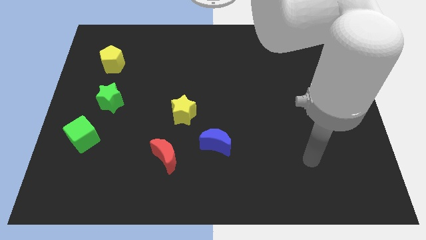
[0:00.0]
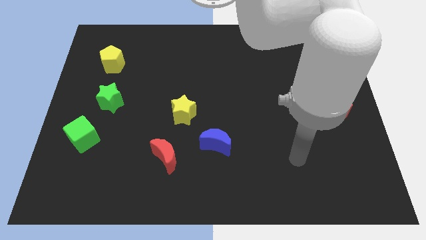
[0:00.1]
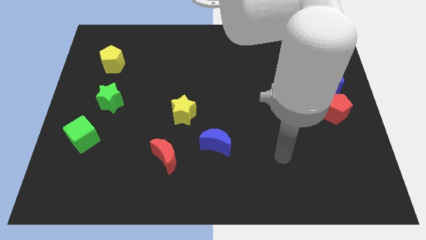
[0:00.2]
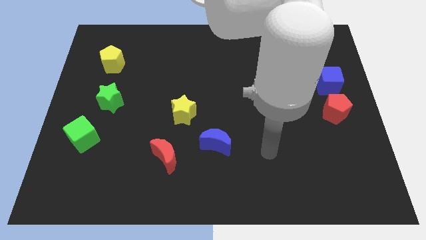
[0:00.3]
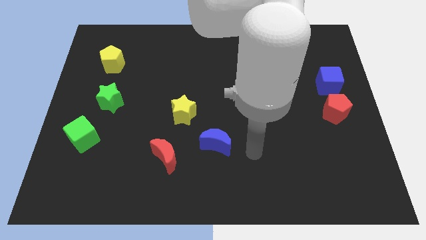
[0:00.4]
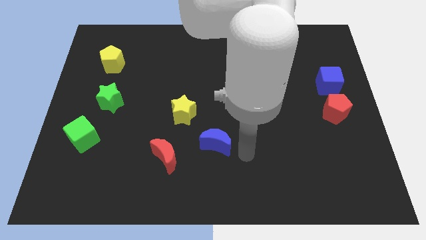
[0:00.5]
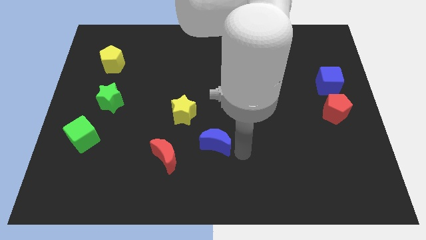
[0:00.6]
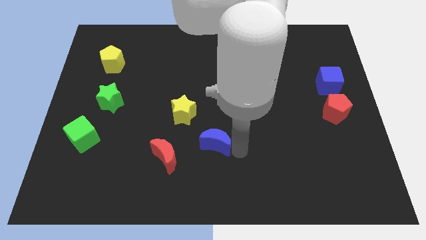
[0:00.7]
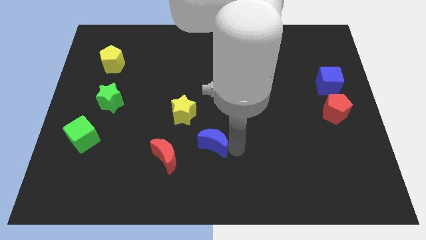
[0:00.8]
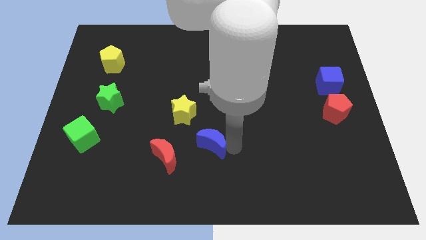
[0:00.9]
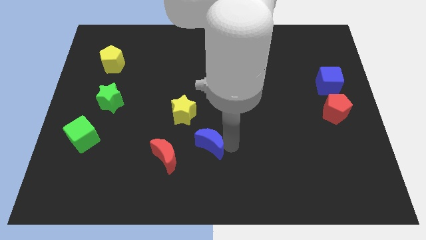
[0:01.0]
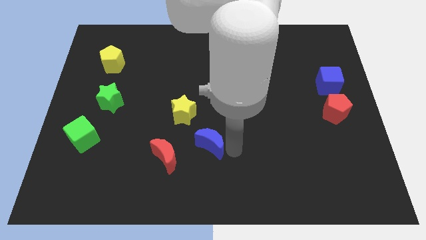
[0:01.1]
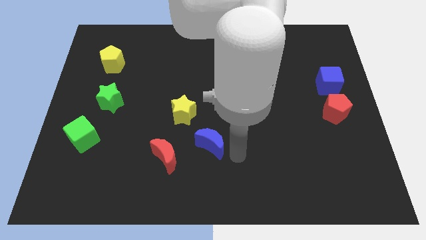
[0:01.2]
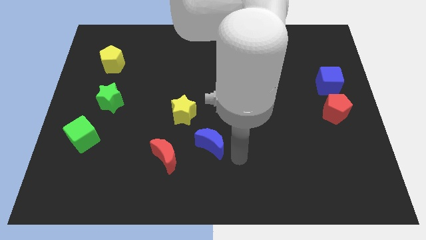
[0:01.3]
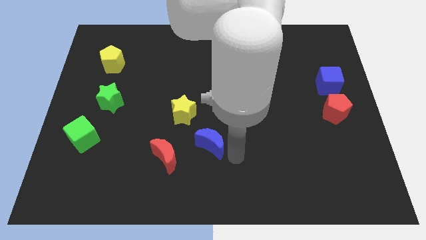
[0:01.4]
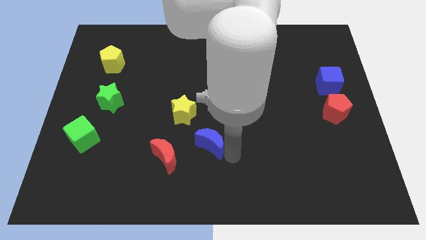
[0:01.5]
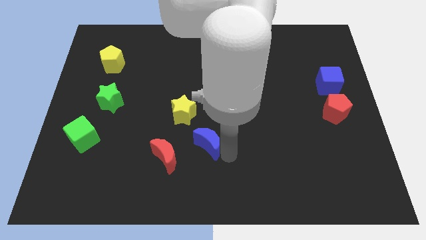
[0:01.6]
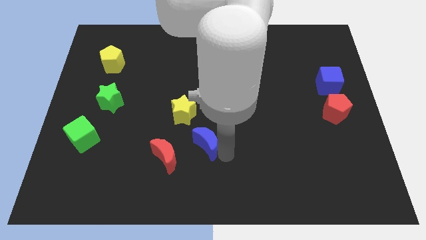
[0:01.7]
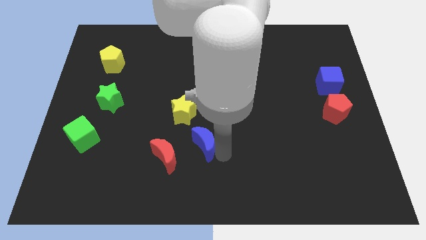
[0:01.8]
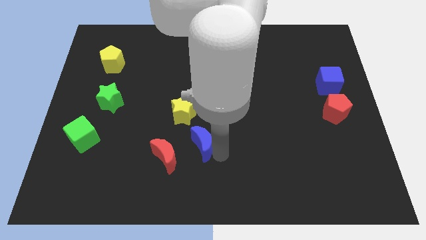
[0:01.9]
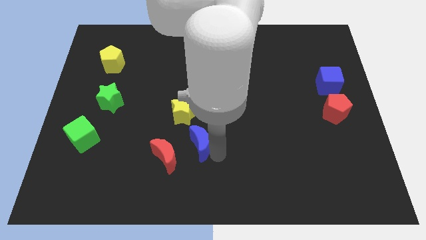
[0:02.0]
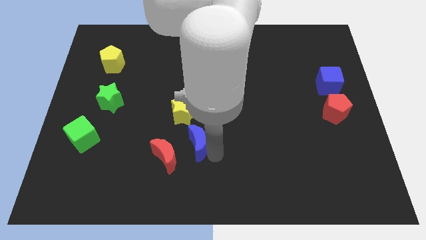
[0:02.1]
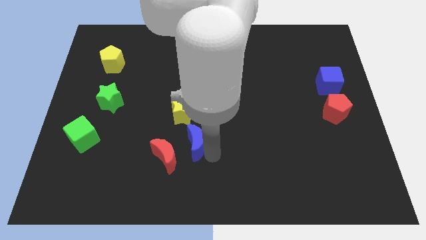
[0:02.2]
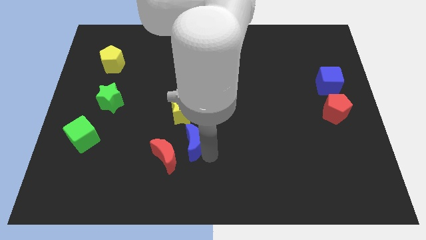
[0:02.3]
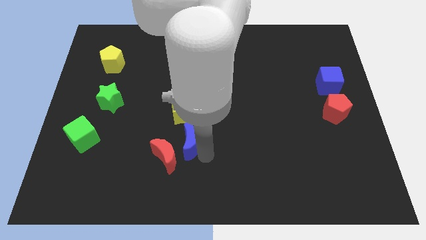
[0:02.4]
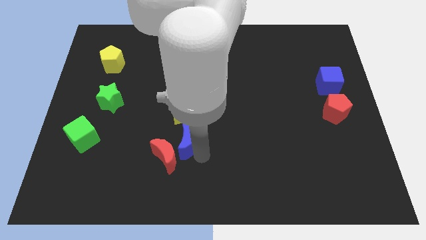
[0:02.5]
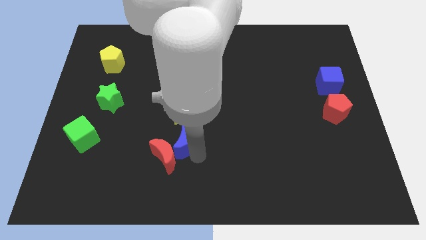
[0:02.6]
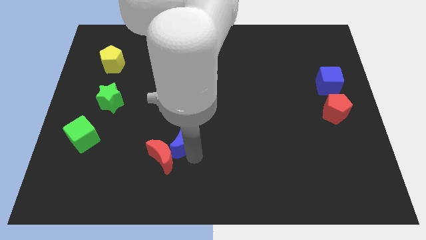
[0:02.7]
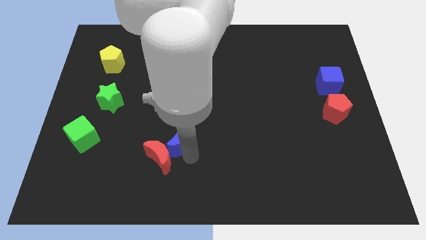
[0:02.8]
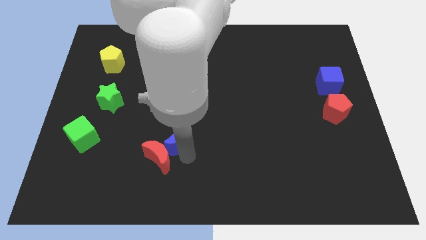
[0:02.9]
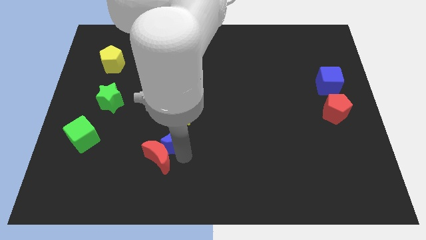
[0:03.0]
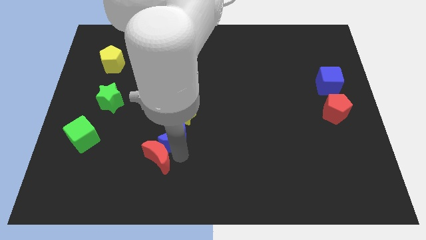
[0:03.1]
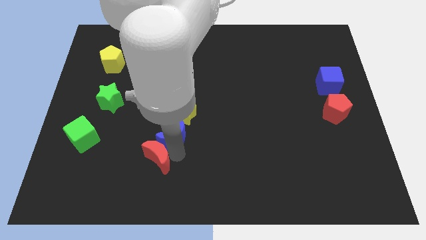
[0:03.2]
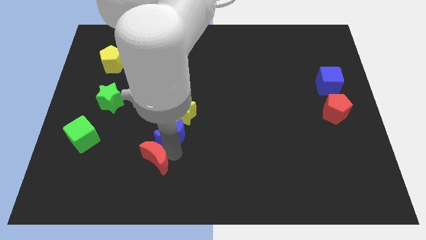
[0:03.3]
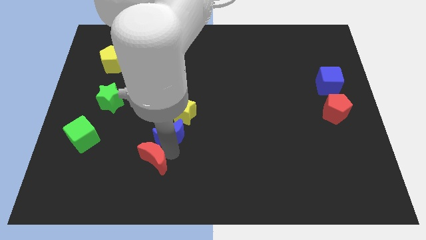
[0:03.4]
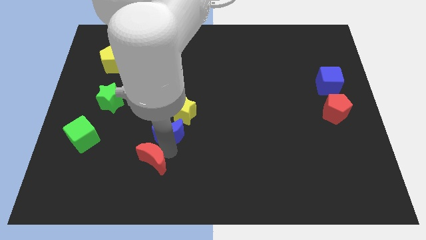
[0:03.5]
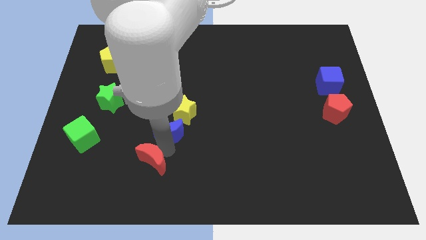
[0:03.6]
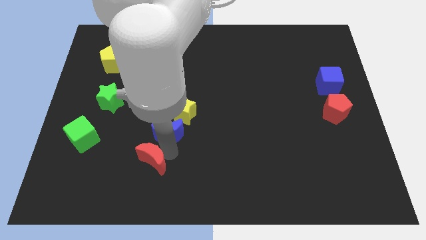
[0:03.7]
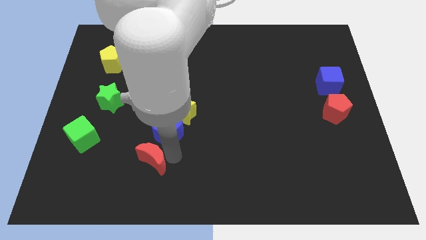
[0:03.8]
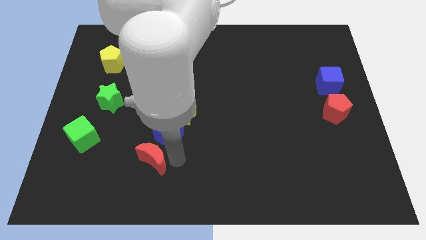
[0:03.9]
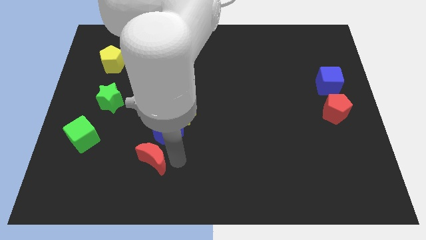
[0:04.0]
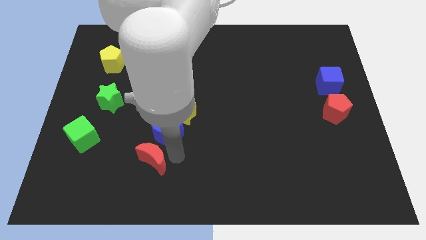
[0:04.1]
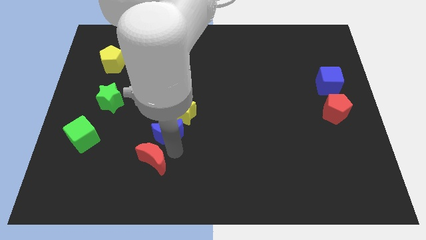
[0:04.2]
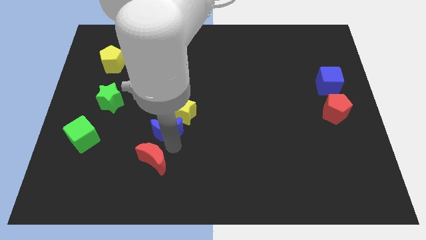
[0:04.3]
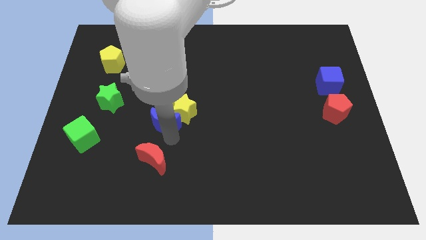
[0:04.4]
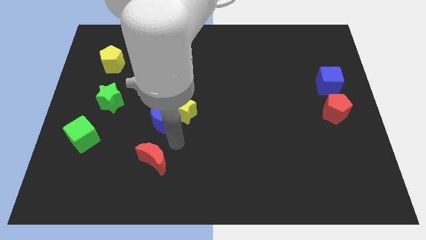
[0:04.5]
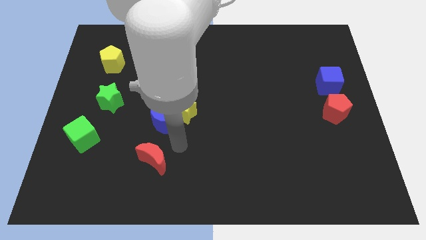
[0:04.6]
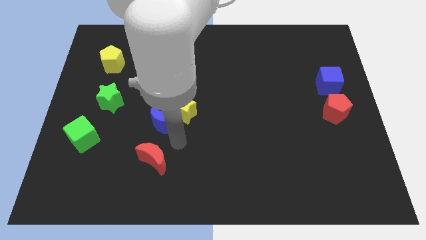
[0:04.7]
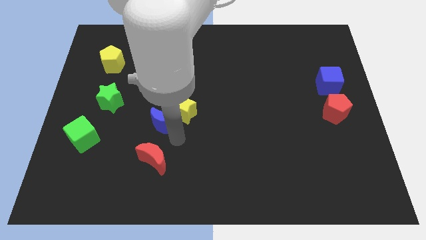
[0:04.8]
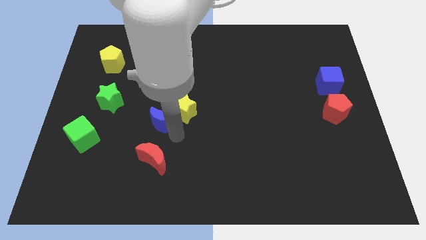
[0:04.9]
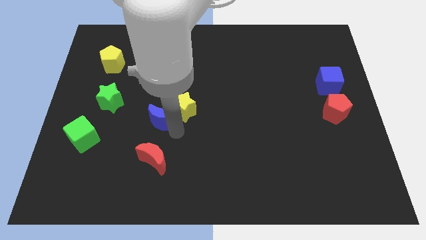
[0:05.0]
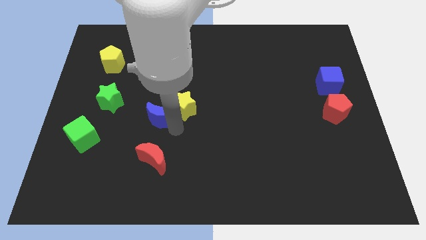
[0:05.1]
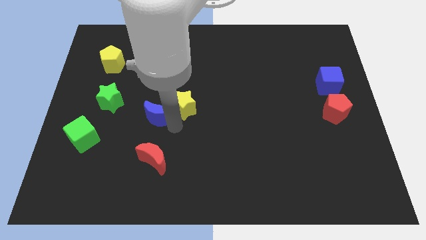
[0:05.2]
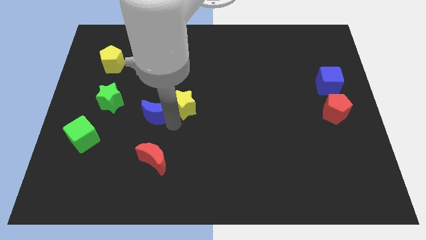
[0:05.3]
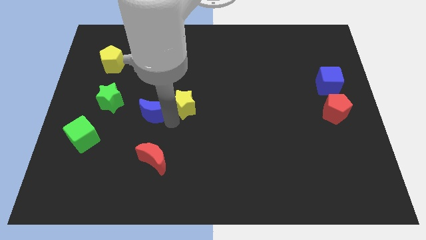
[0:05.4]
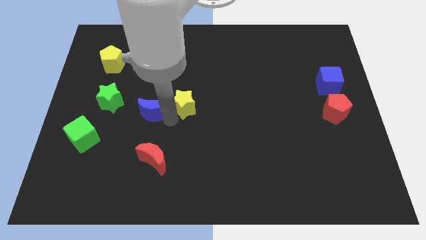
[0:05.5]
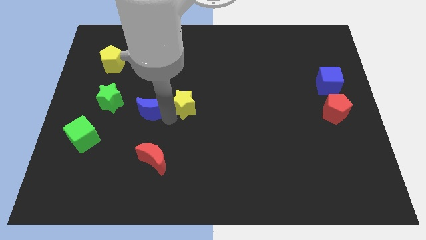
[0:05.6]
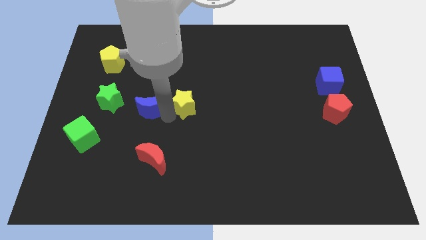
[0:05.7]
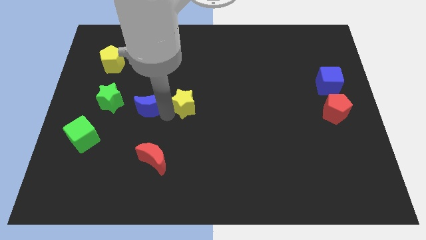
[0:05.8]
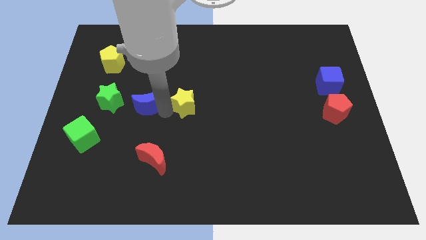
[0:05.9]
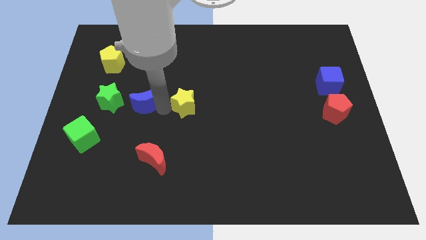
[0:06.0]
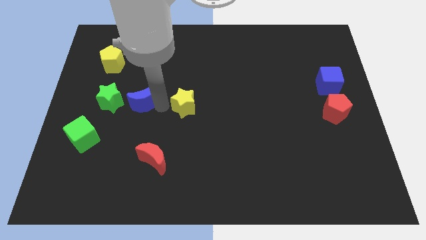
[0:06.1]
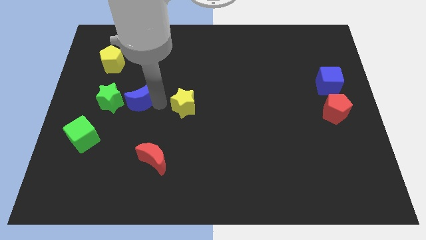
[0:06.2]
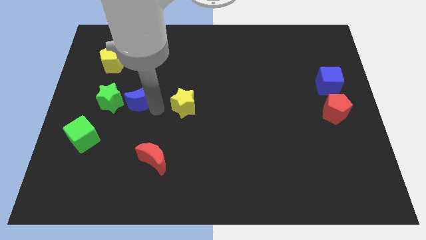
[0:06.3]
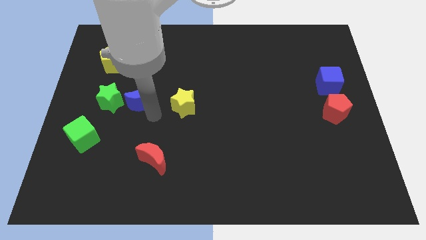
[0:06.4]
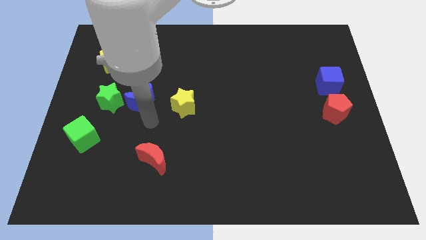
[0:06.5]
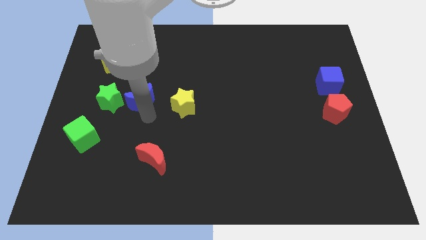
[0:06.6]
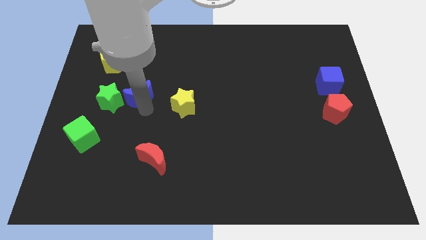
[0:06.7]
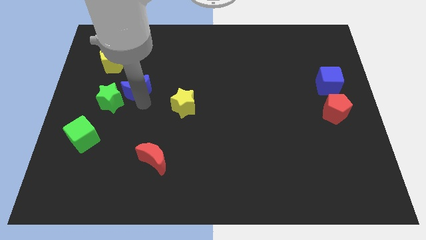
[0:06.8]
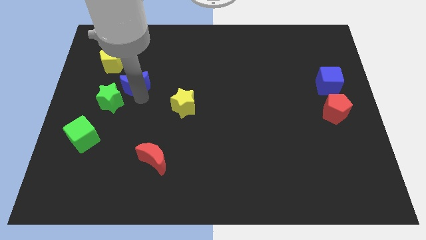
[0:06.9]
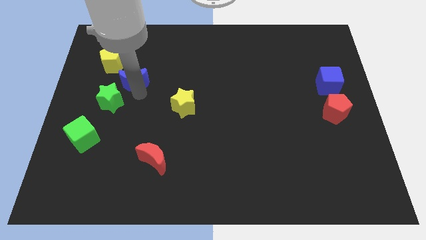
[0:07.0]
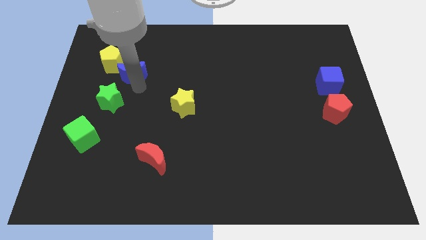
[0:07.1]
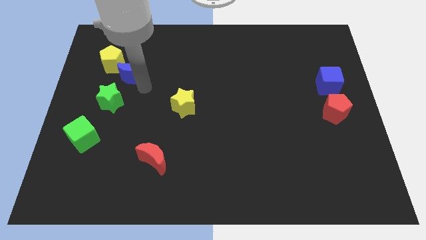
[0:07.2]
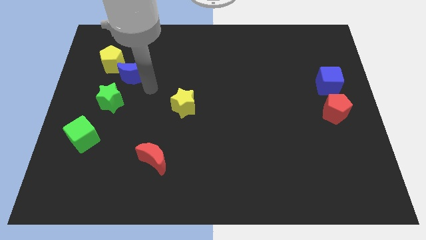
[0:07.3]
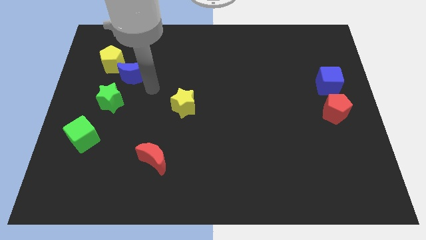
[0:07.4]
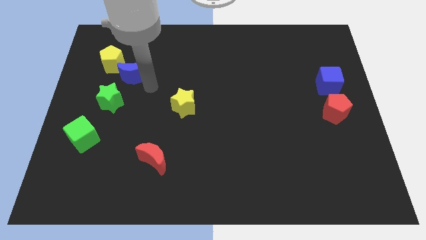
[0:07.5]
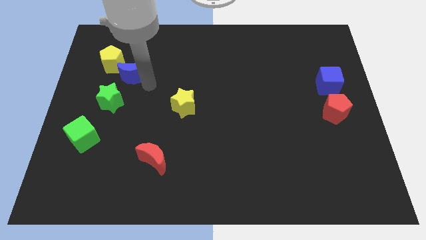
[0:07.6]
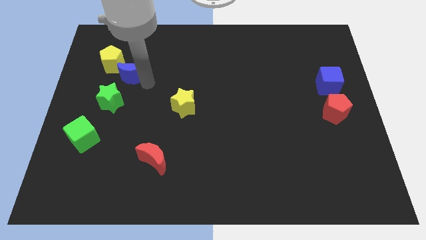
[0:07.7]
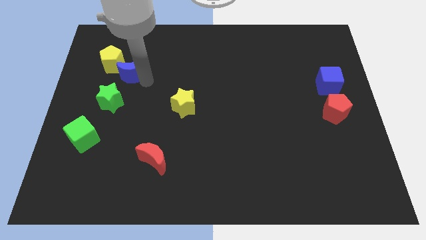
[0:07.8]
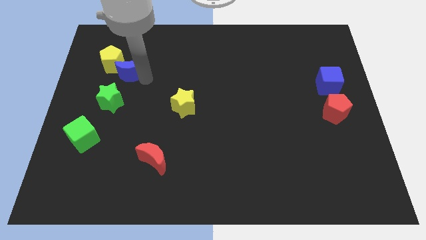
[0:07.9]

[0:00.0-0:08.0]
push the blue moon towards the yellow pentagon
